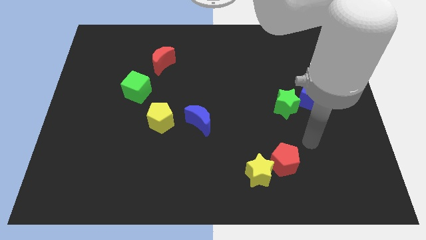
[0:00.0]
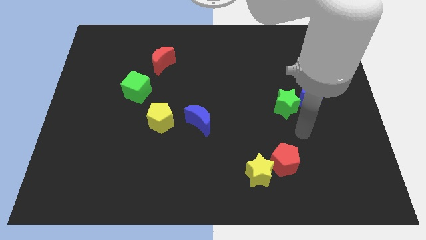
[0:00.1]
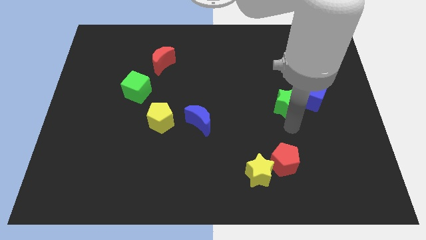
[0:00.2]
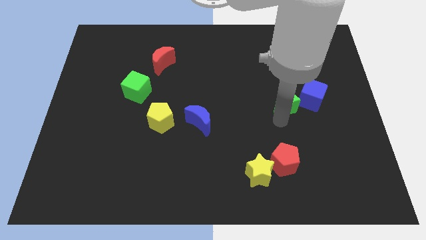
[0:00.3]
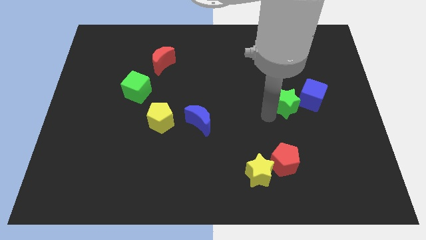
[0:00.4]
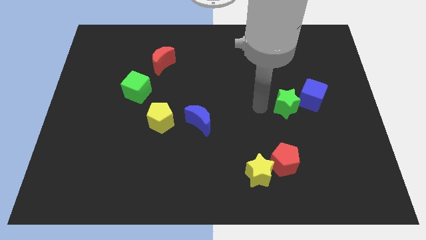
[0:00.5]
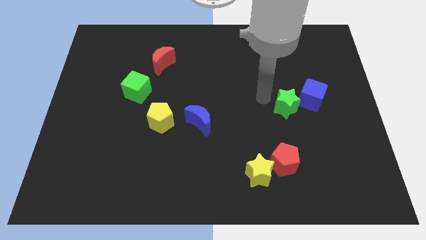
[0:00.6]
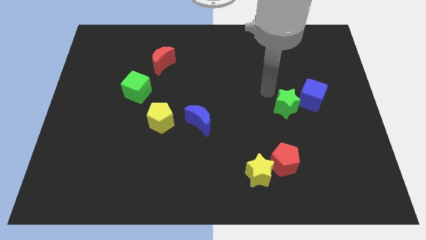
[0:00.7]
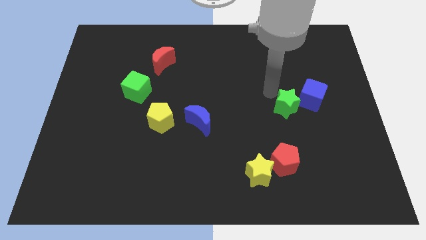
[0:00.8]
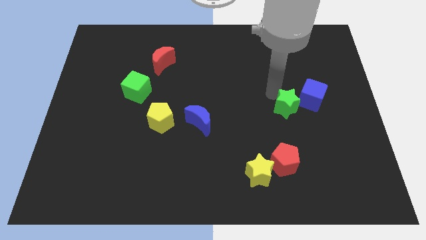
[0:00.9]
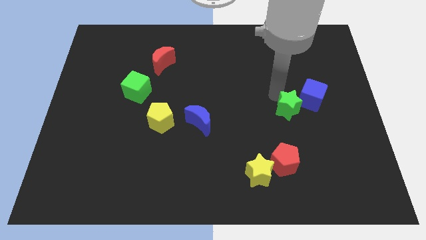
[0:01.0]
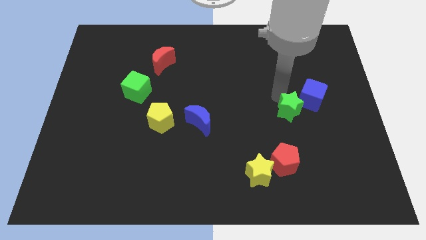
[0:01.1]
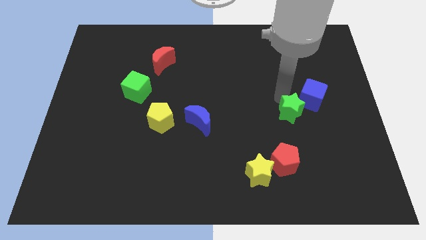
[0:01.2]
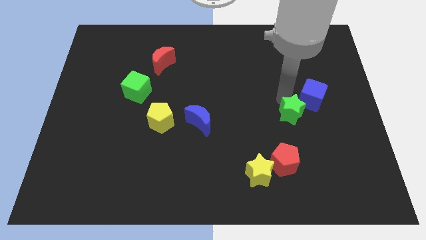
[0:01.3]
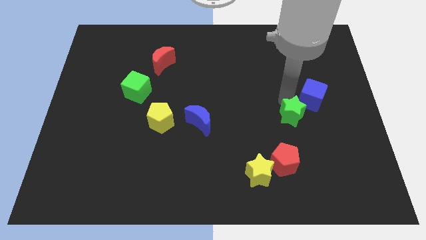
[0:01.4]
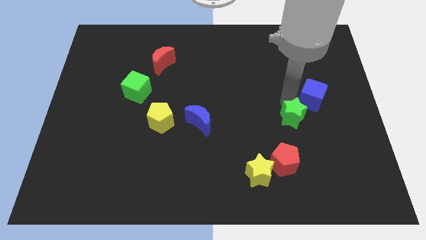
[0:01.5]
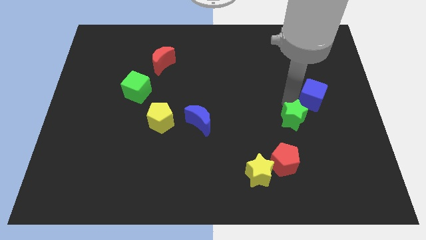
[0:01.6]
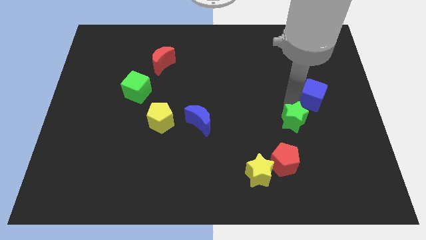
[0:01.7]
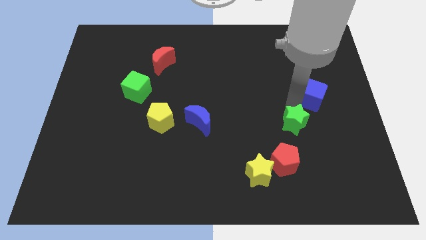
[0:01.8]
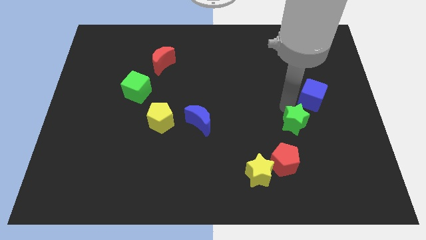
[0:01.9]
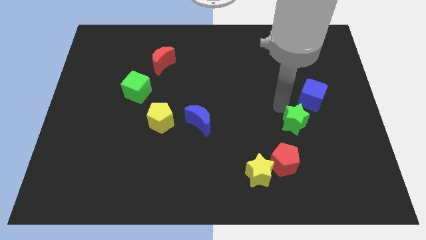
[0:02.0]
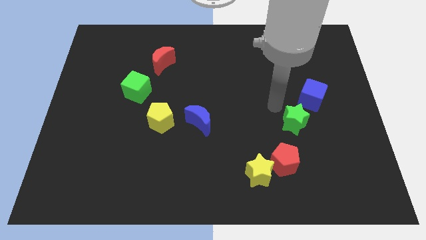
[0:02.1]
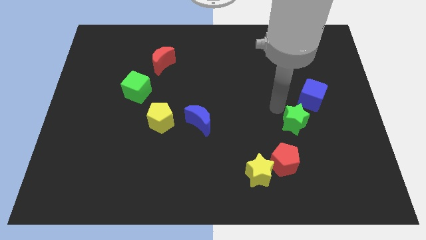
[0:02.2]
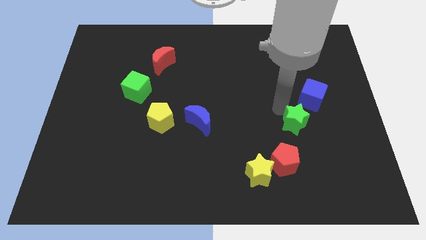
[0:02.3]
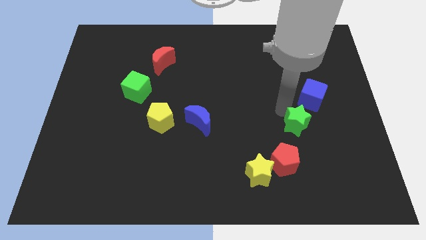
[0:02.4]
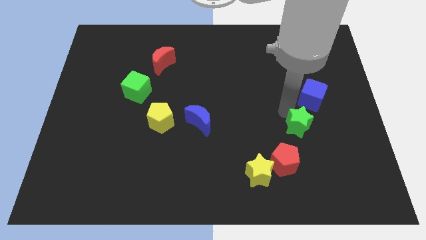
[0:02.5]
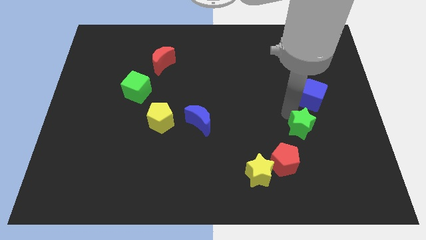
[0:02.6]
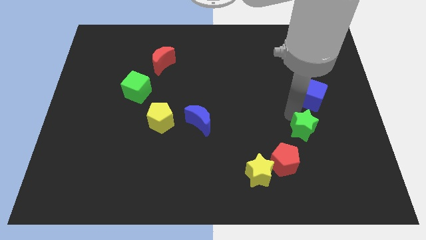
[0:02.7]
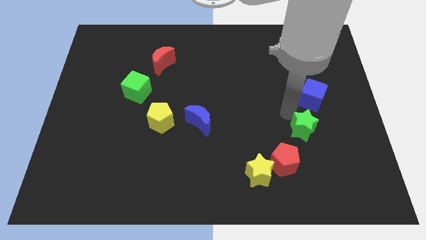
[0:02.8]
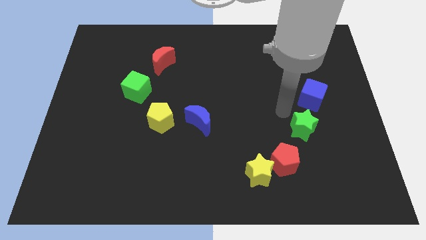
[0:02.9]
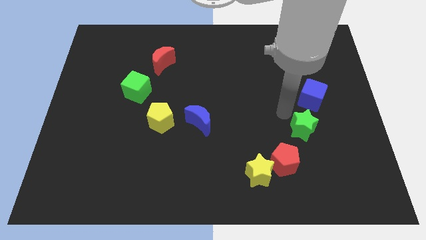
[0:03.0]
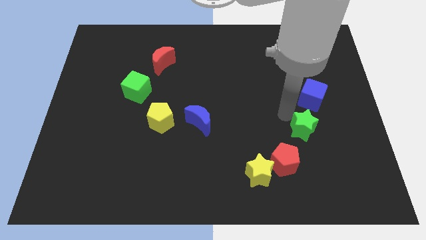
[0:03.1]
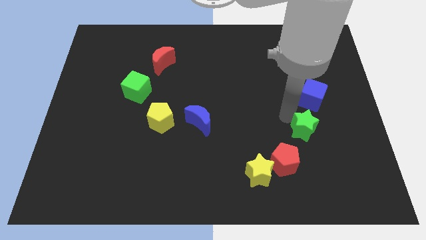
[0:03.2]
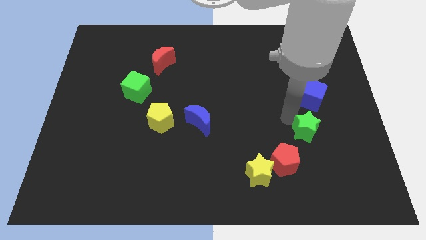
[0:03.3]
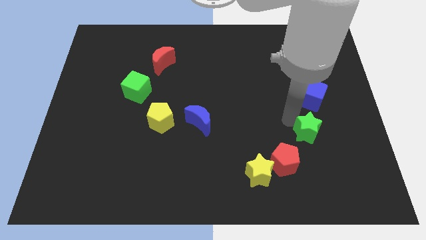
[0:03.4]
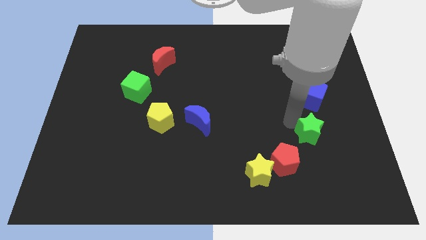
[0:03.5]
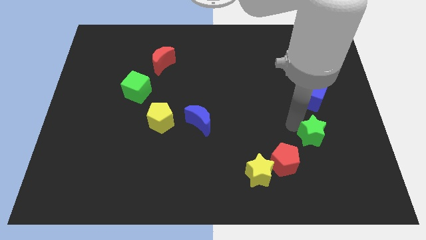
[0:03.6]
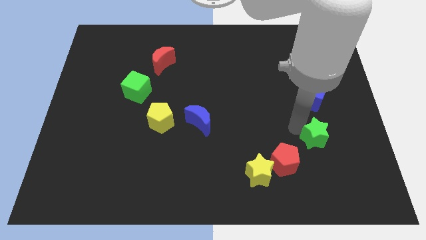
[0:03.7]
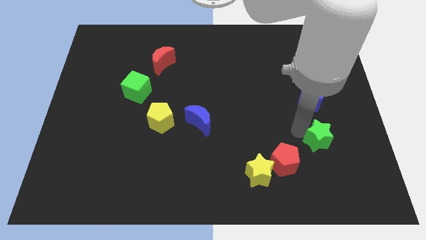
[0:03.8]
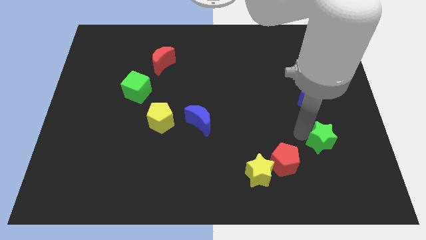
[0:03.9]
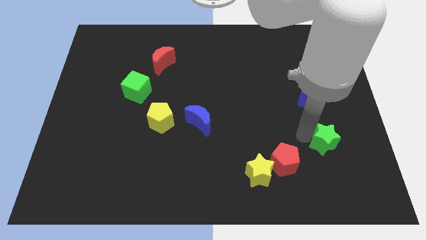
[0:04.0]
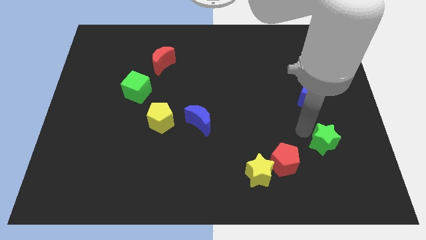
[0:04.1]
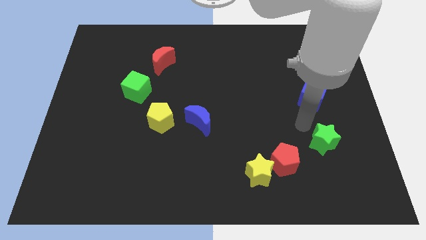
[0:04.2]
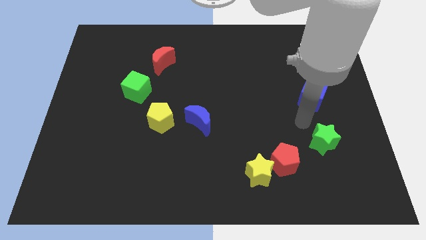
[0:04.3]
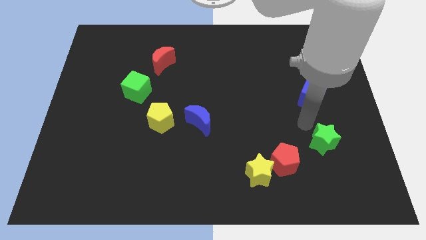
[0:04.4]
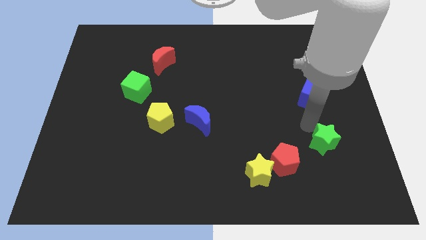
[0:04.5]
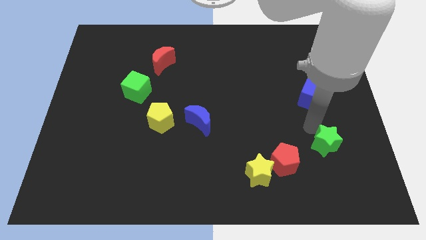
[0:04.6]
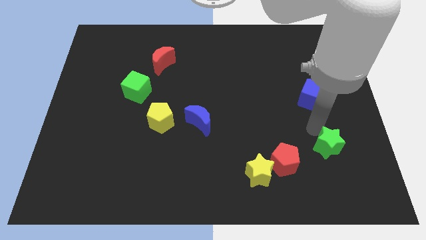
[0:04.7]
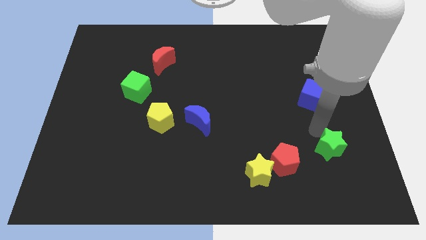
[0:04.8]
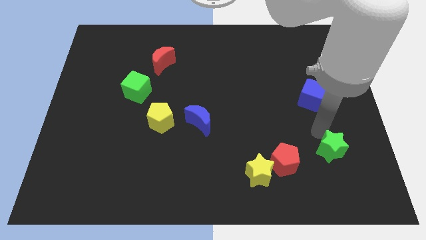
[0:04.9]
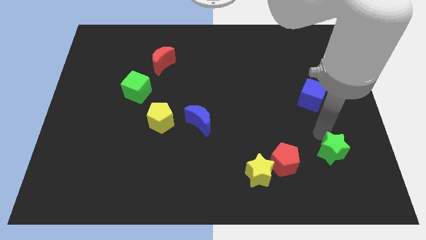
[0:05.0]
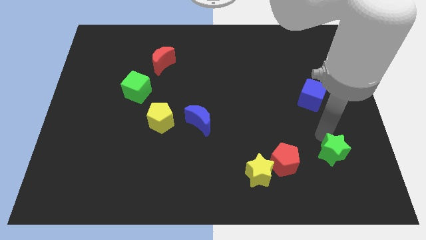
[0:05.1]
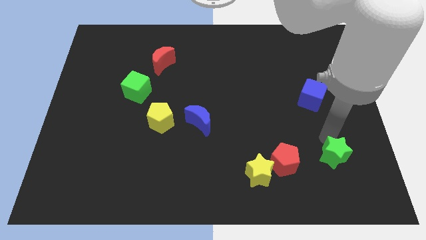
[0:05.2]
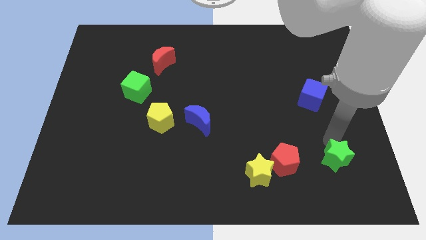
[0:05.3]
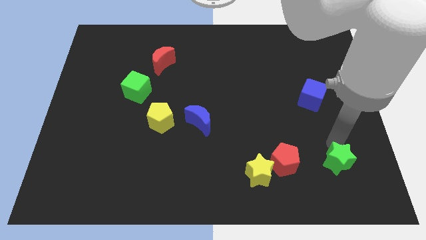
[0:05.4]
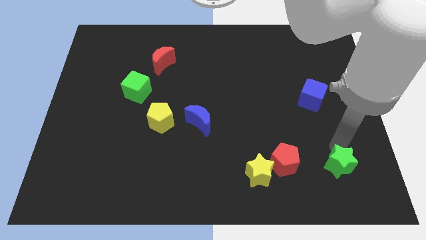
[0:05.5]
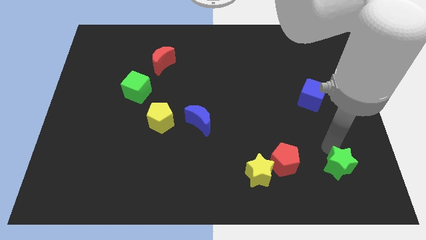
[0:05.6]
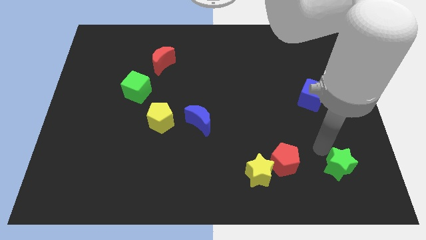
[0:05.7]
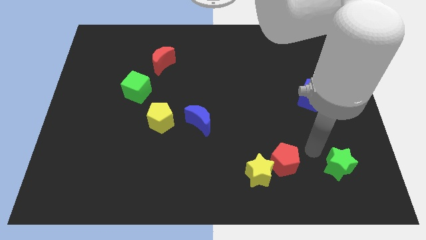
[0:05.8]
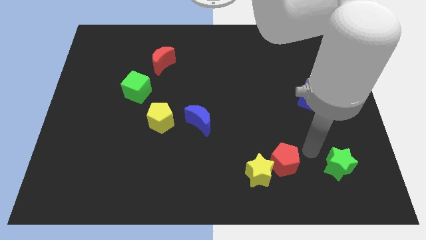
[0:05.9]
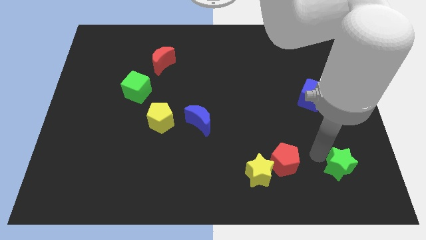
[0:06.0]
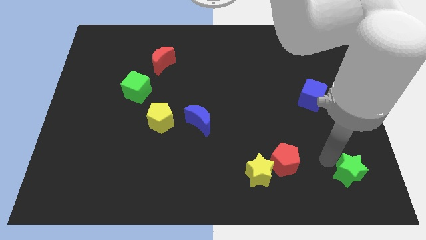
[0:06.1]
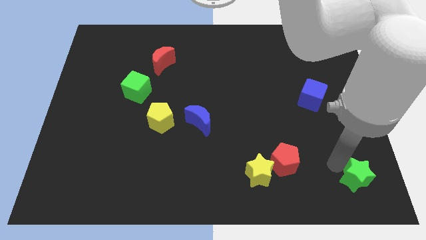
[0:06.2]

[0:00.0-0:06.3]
slide the green star to the lower right corner
